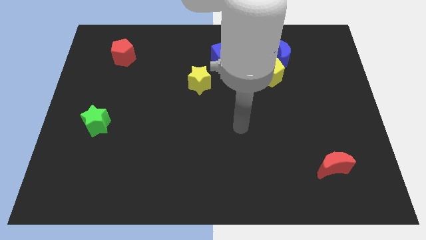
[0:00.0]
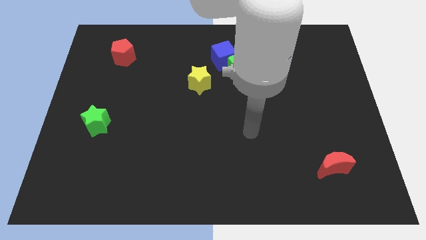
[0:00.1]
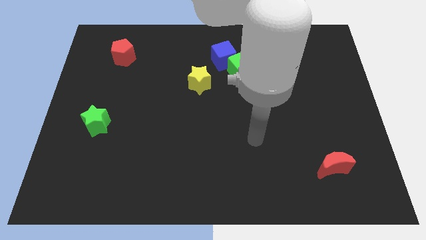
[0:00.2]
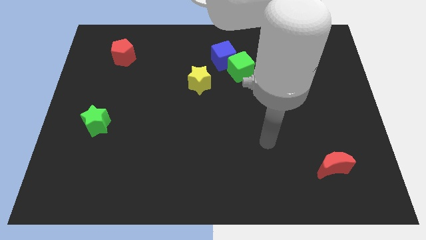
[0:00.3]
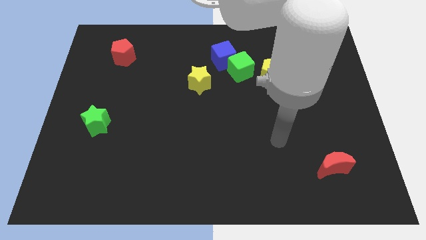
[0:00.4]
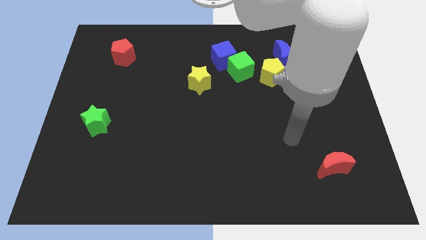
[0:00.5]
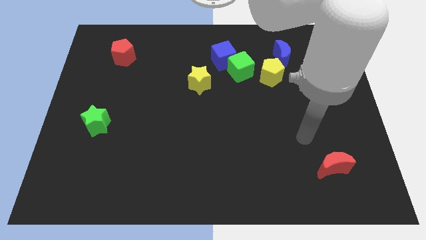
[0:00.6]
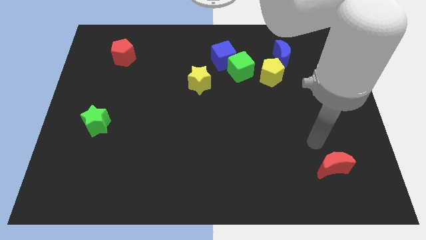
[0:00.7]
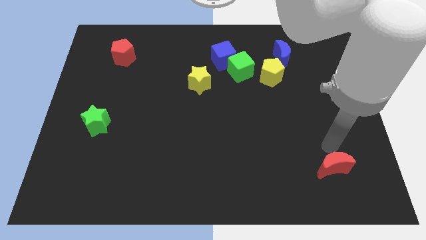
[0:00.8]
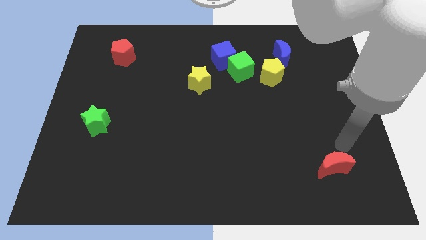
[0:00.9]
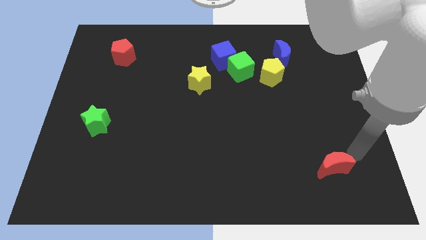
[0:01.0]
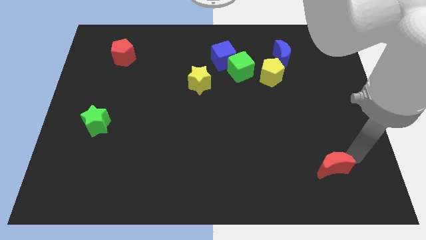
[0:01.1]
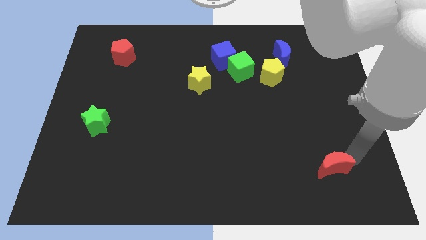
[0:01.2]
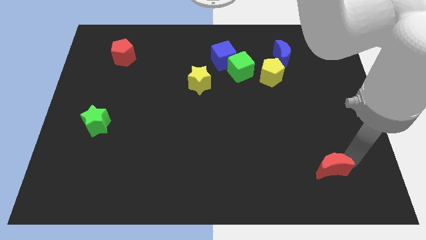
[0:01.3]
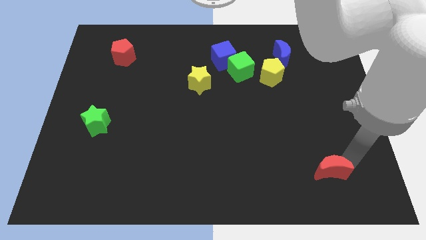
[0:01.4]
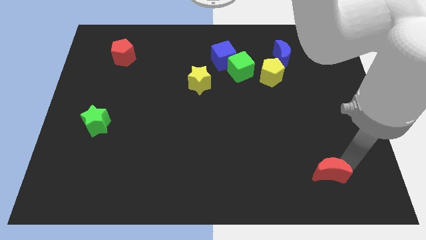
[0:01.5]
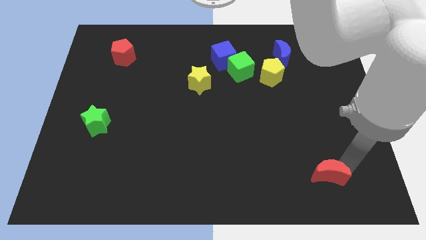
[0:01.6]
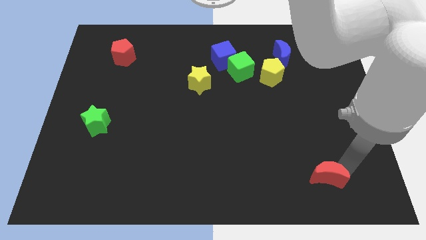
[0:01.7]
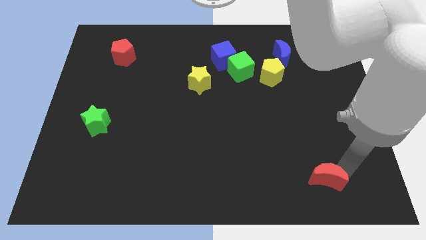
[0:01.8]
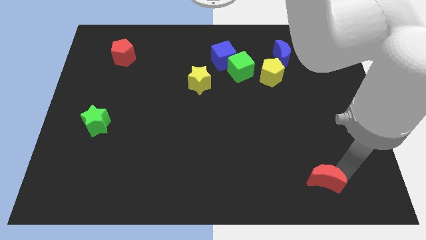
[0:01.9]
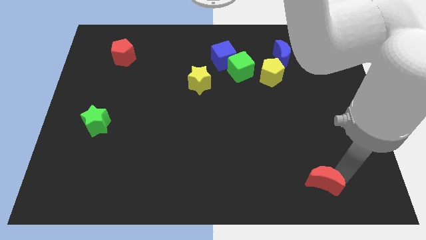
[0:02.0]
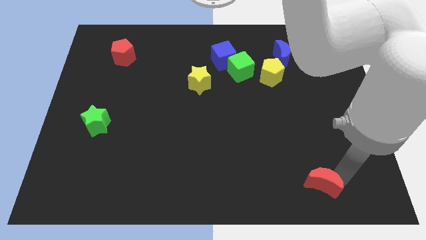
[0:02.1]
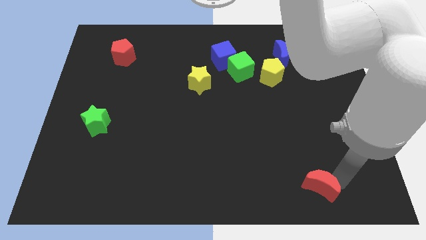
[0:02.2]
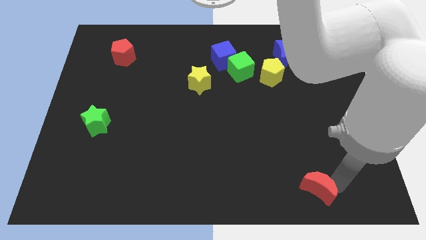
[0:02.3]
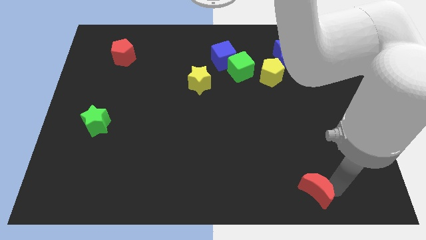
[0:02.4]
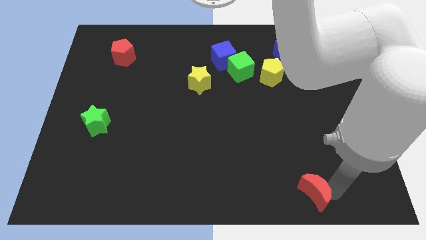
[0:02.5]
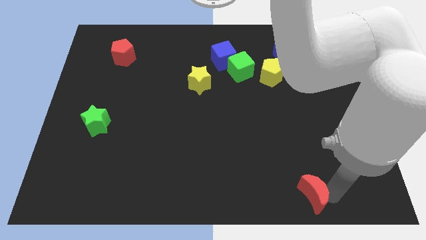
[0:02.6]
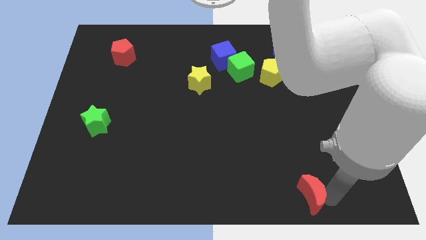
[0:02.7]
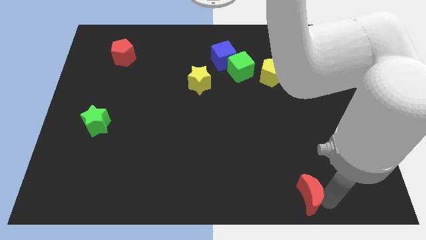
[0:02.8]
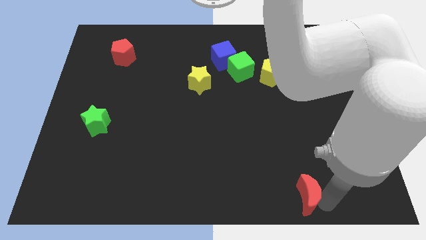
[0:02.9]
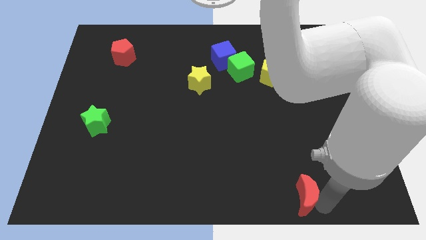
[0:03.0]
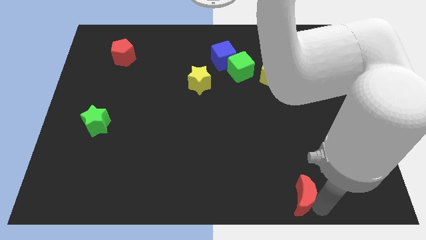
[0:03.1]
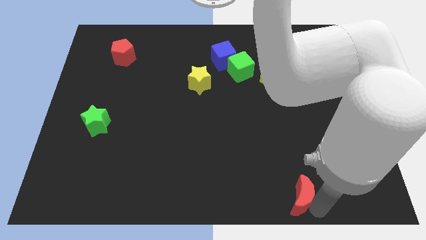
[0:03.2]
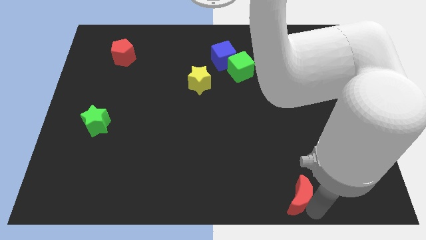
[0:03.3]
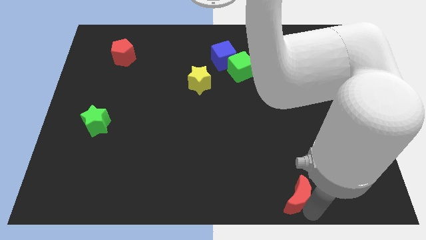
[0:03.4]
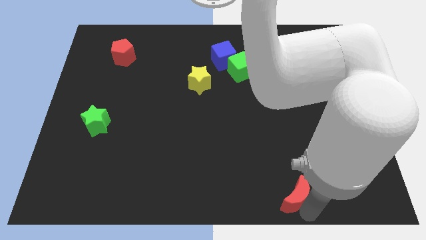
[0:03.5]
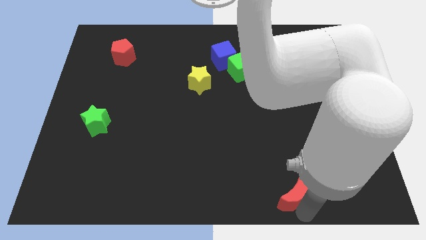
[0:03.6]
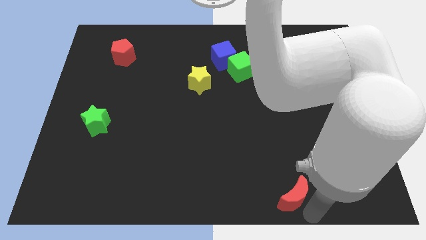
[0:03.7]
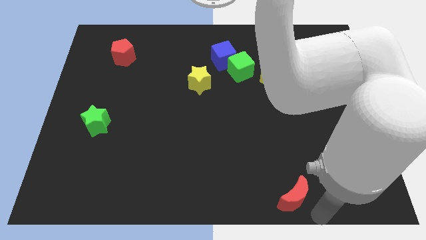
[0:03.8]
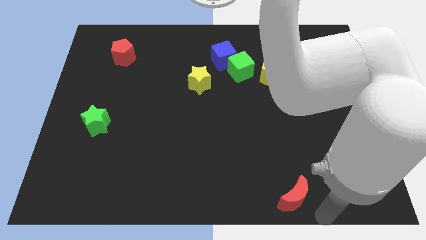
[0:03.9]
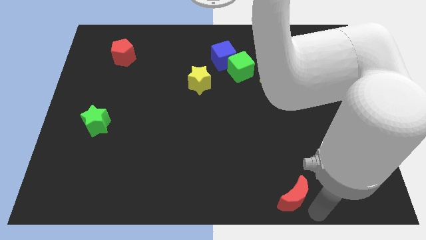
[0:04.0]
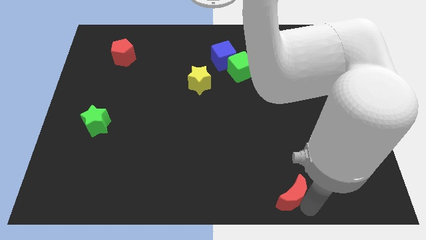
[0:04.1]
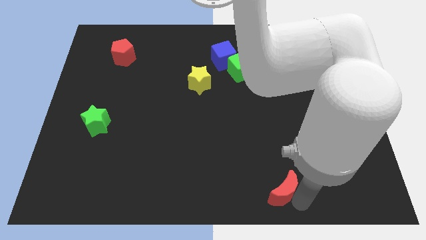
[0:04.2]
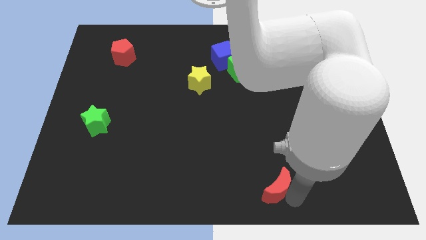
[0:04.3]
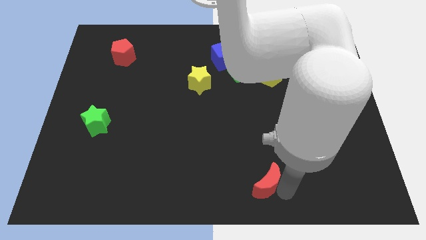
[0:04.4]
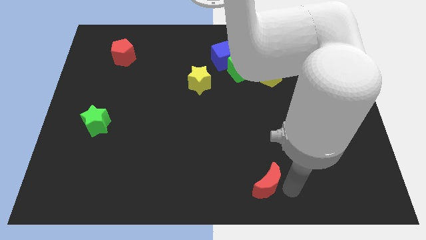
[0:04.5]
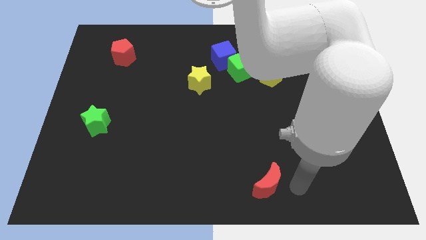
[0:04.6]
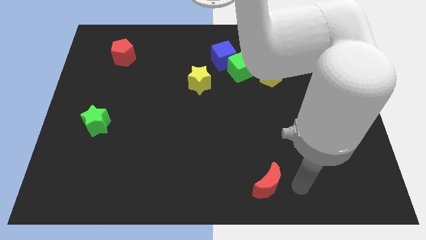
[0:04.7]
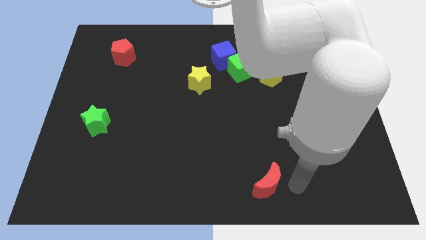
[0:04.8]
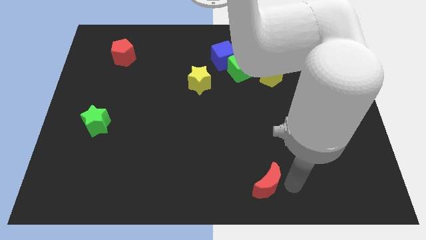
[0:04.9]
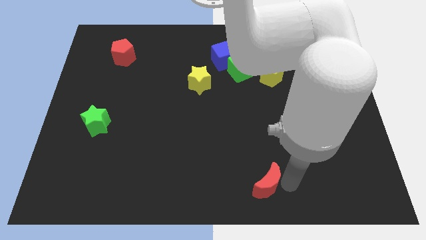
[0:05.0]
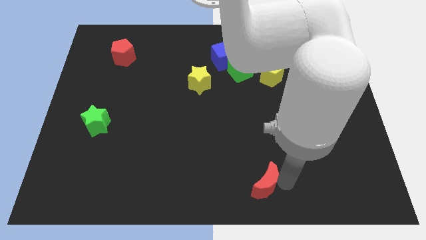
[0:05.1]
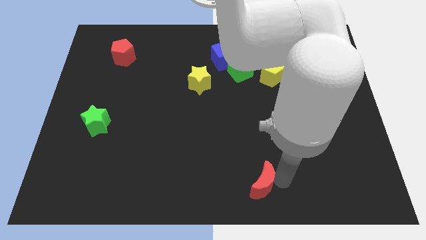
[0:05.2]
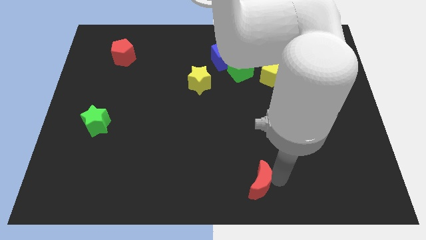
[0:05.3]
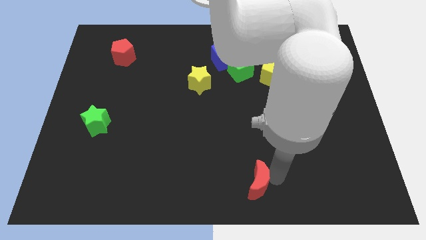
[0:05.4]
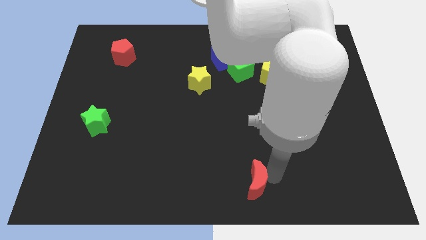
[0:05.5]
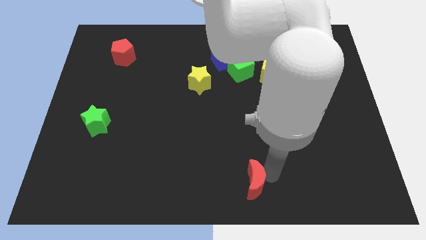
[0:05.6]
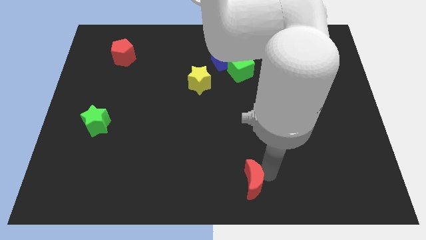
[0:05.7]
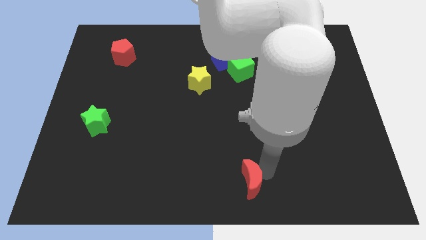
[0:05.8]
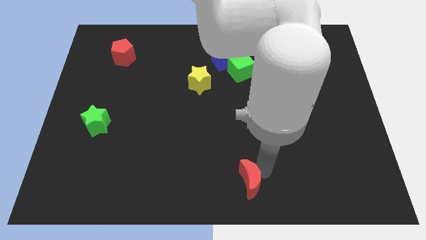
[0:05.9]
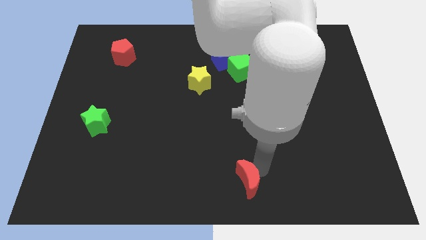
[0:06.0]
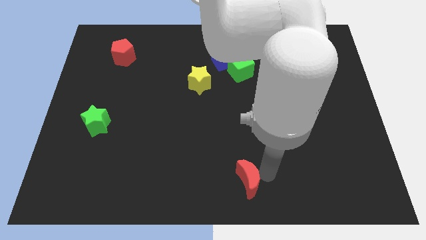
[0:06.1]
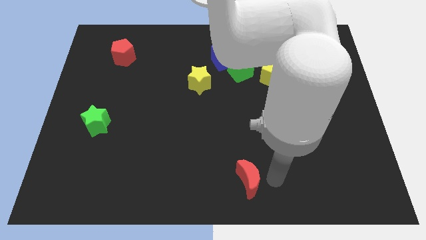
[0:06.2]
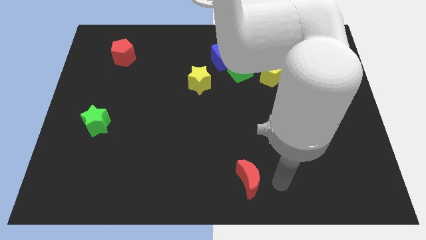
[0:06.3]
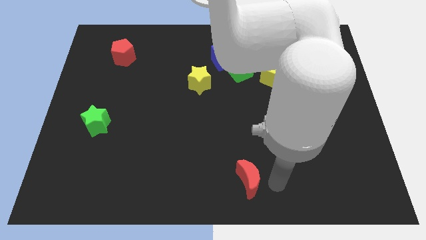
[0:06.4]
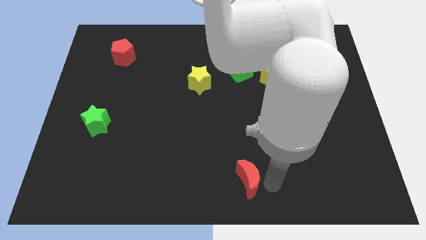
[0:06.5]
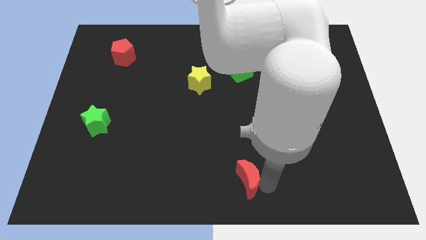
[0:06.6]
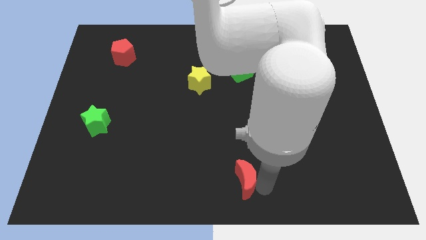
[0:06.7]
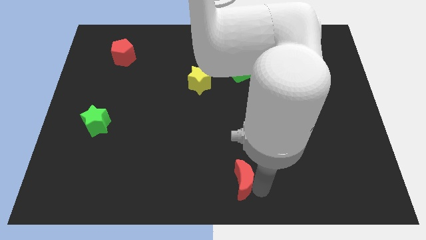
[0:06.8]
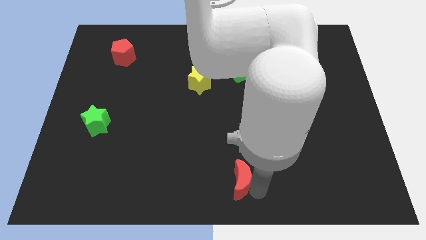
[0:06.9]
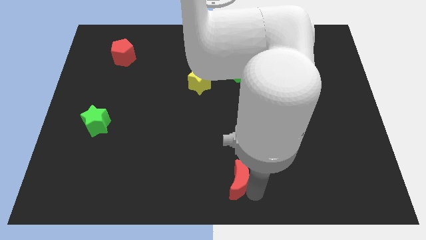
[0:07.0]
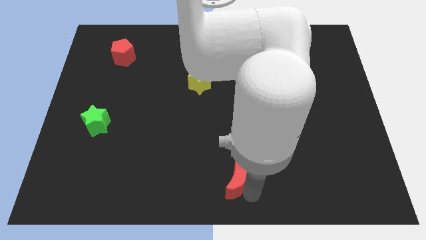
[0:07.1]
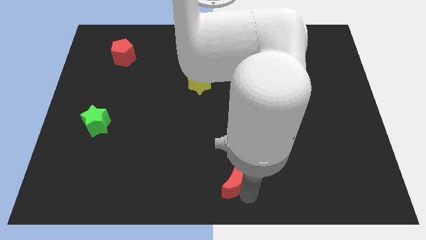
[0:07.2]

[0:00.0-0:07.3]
push the red moon to the left

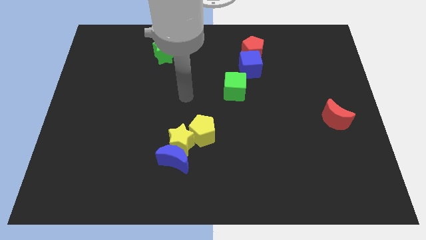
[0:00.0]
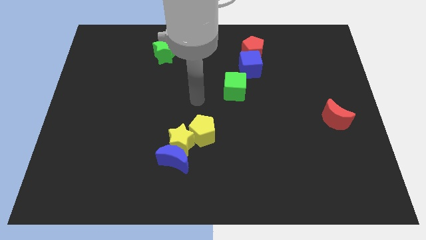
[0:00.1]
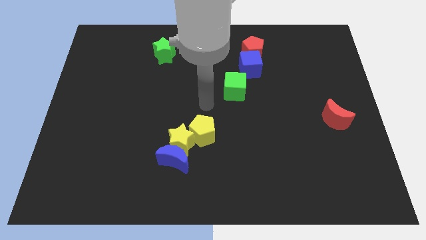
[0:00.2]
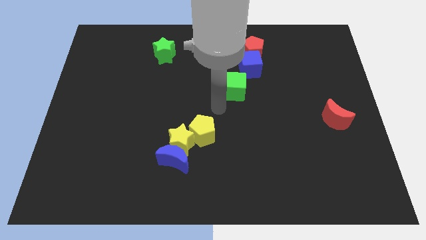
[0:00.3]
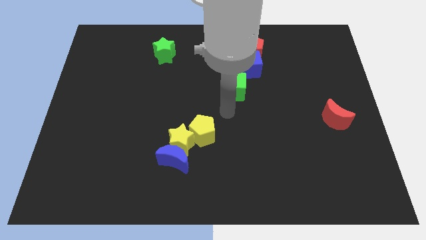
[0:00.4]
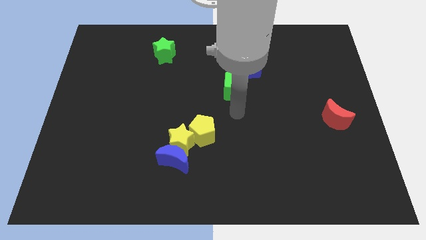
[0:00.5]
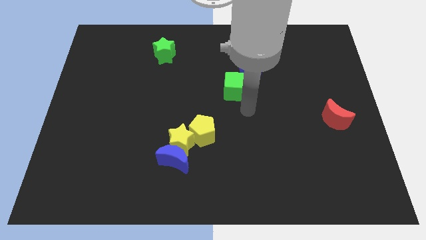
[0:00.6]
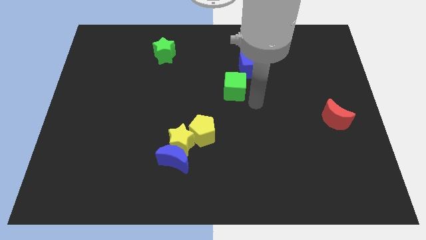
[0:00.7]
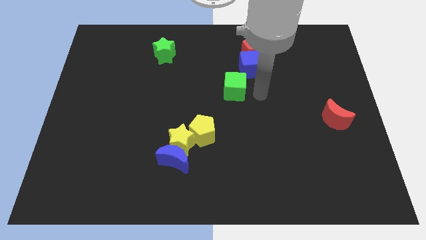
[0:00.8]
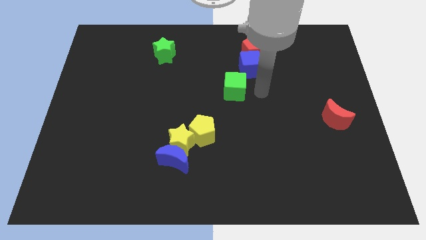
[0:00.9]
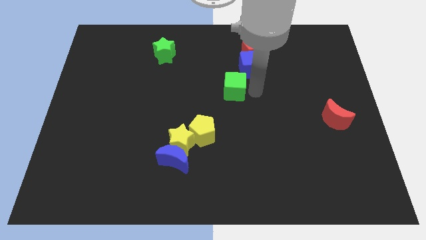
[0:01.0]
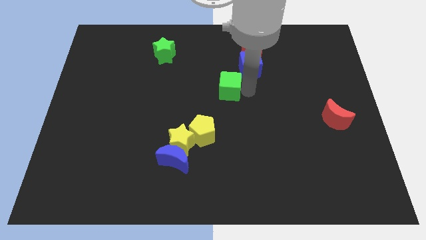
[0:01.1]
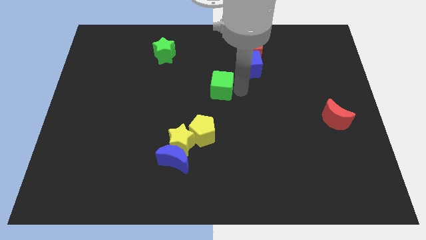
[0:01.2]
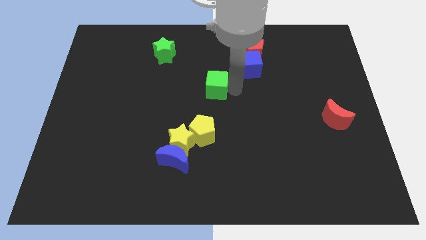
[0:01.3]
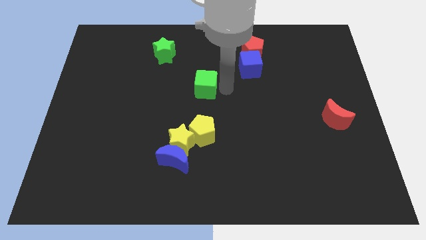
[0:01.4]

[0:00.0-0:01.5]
move the green cube somewhat left
